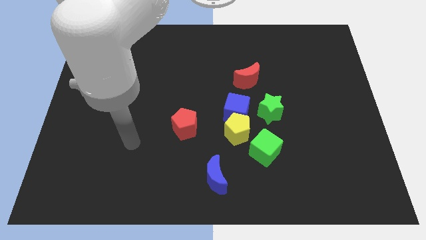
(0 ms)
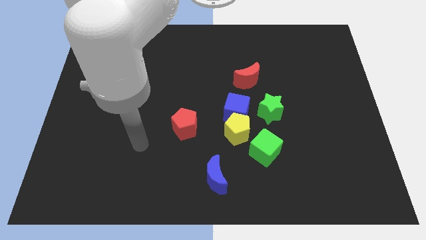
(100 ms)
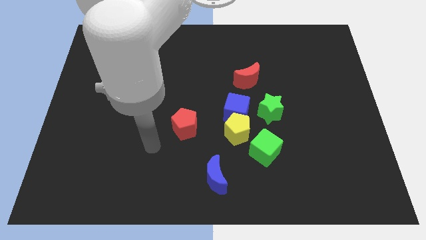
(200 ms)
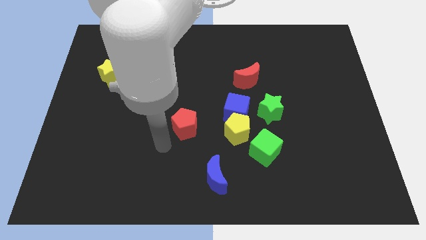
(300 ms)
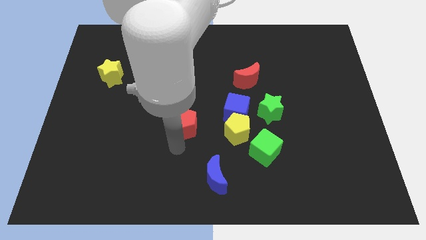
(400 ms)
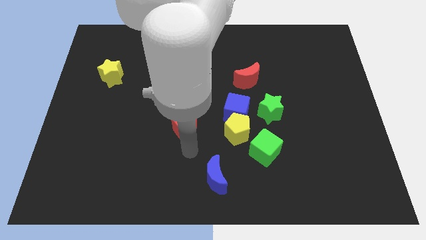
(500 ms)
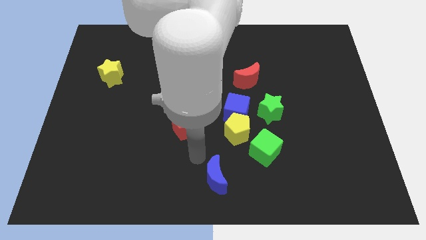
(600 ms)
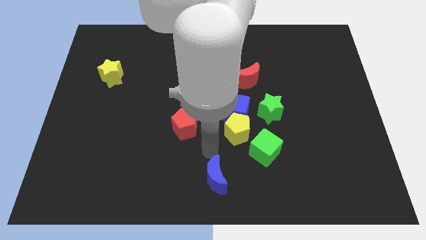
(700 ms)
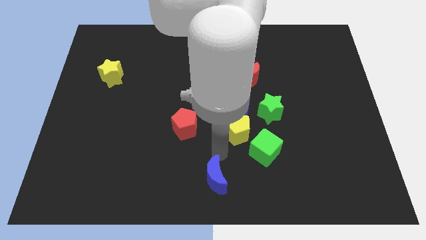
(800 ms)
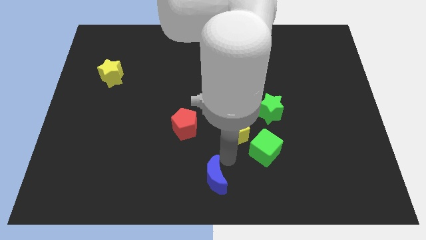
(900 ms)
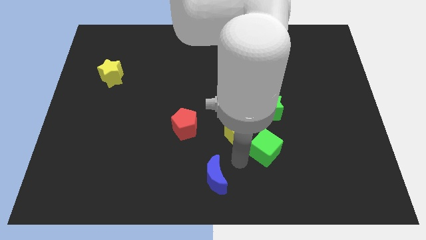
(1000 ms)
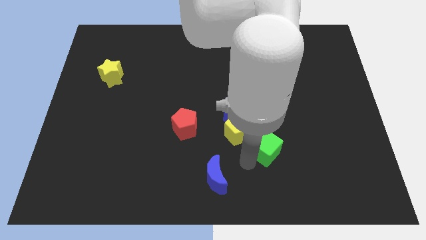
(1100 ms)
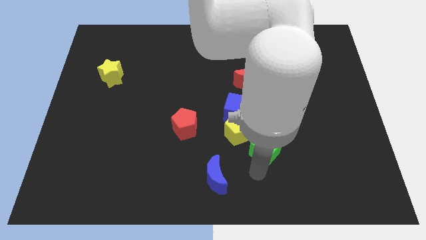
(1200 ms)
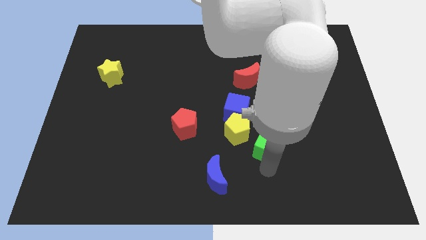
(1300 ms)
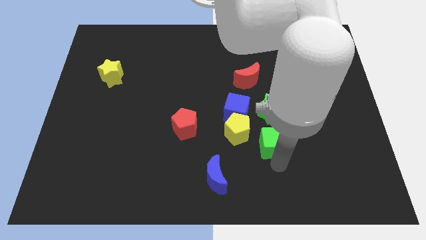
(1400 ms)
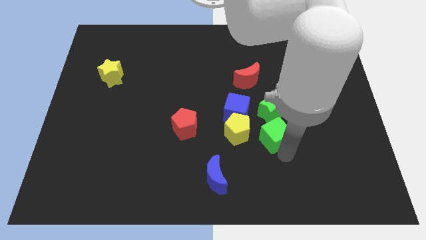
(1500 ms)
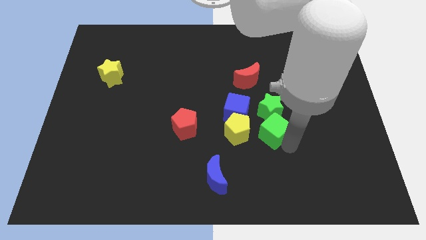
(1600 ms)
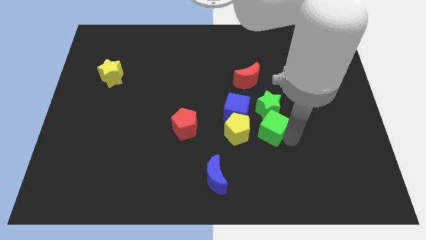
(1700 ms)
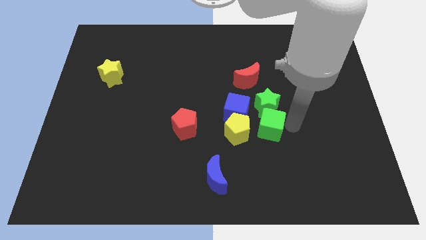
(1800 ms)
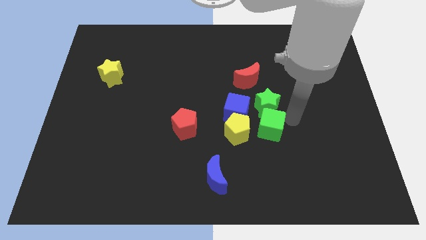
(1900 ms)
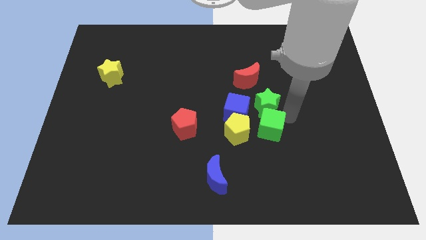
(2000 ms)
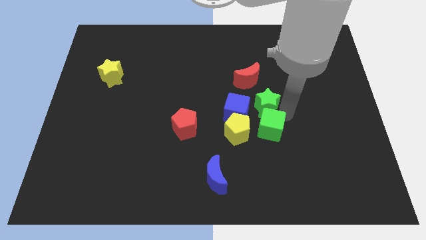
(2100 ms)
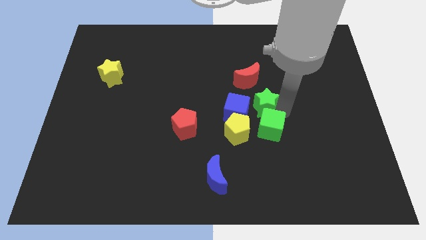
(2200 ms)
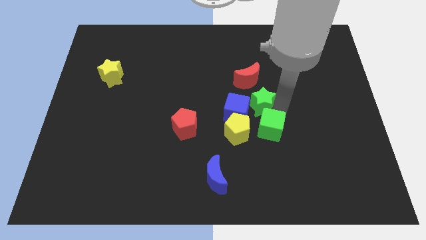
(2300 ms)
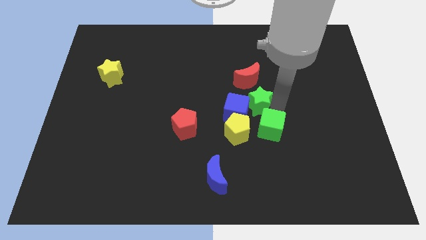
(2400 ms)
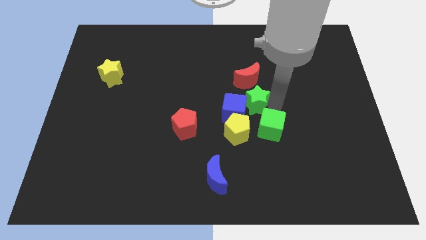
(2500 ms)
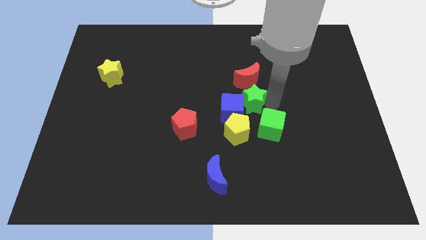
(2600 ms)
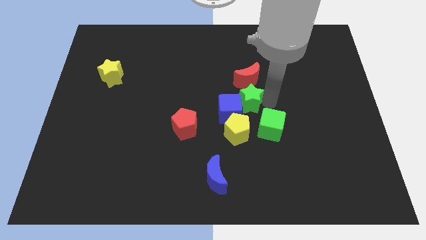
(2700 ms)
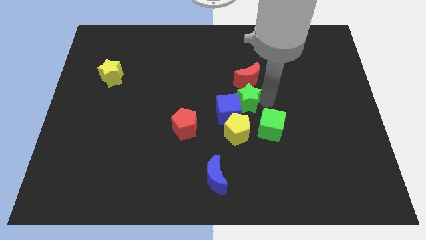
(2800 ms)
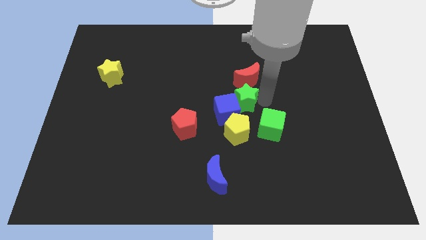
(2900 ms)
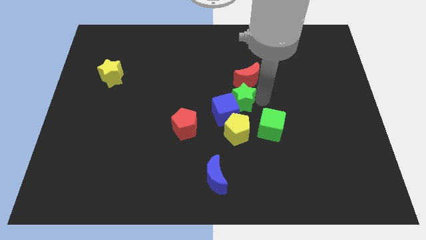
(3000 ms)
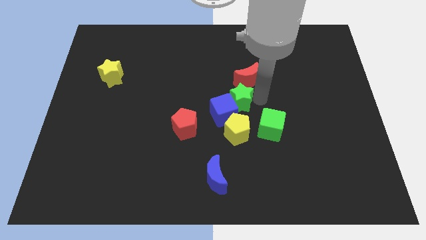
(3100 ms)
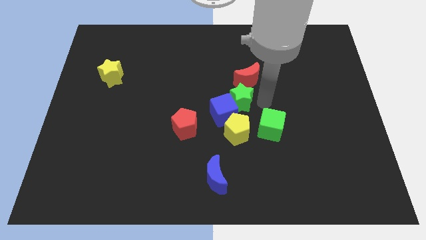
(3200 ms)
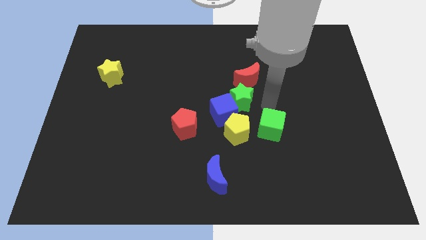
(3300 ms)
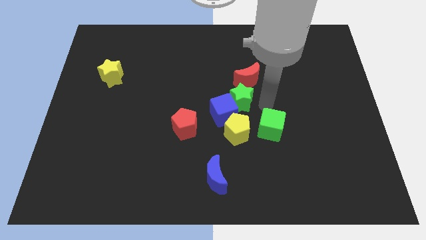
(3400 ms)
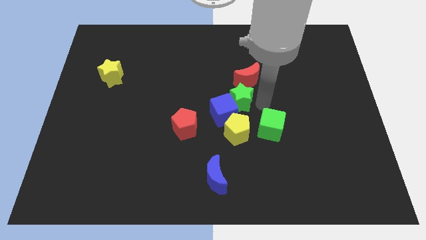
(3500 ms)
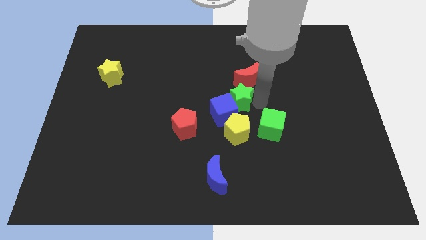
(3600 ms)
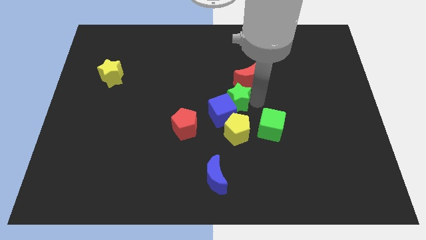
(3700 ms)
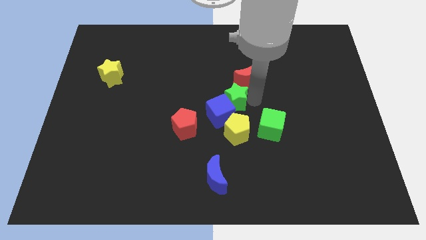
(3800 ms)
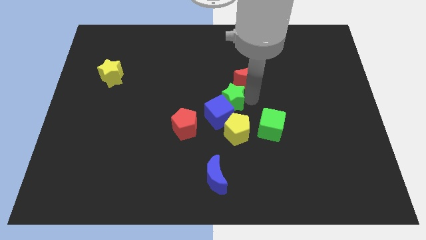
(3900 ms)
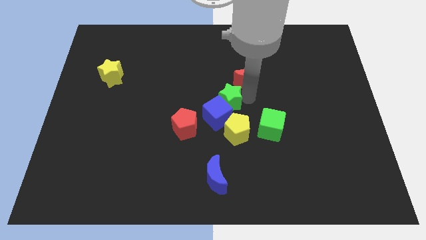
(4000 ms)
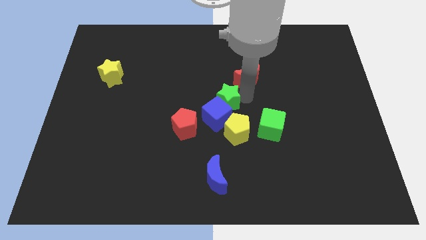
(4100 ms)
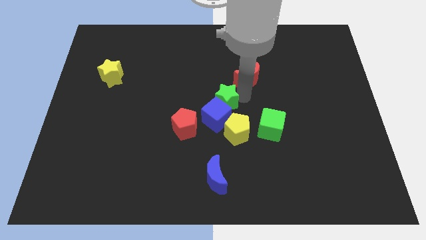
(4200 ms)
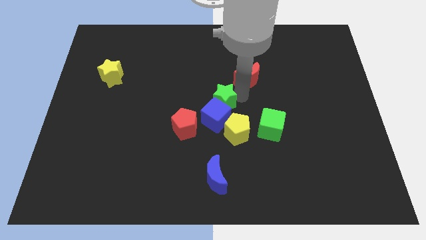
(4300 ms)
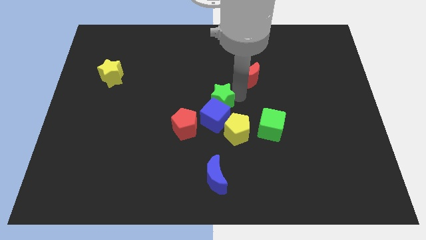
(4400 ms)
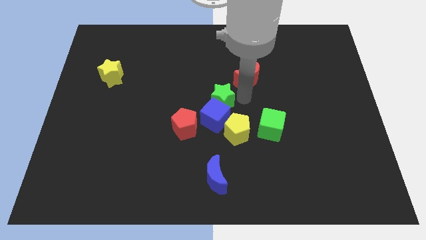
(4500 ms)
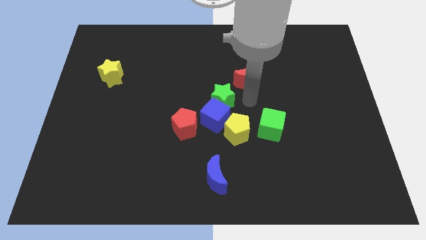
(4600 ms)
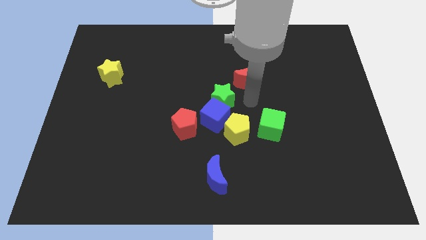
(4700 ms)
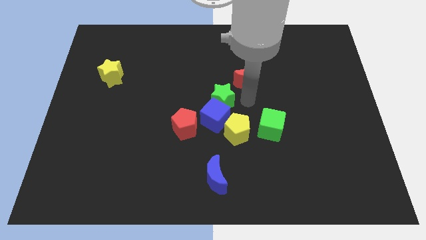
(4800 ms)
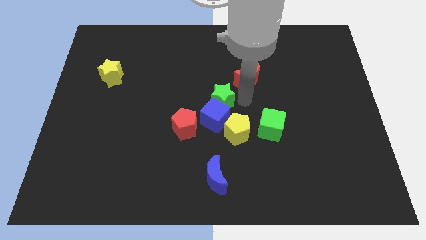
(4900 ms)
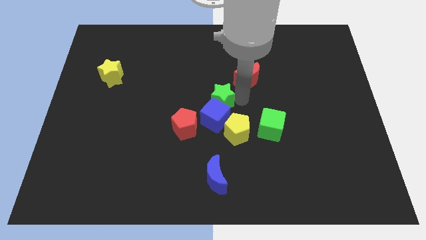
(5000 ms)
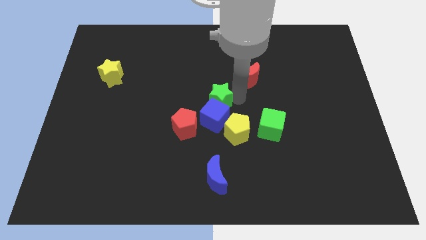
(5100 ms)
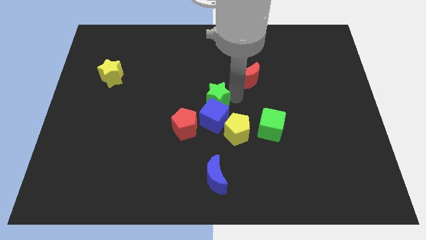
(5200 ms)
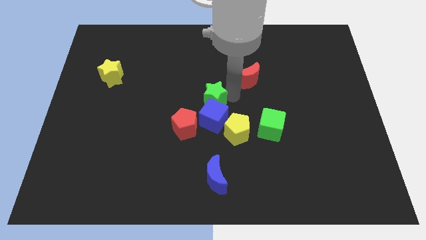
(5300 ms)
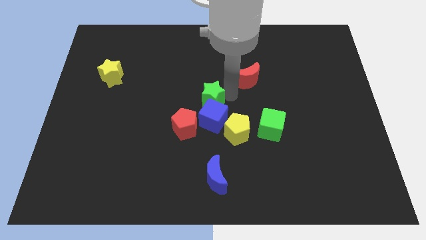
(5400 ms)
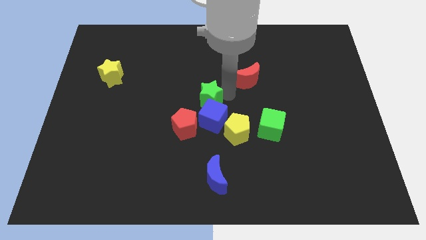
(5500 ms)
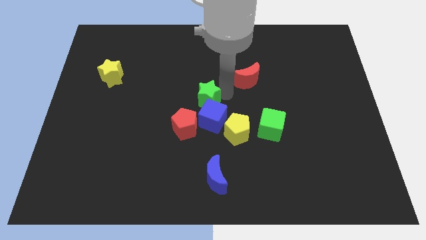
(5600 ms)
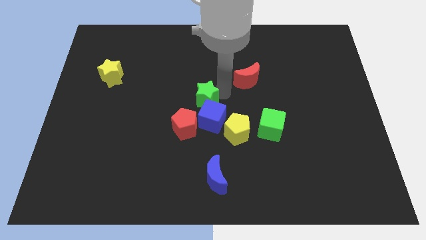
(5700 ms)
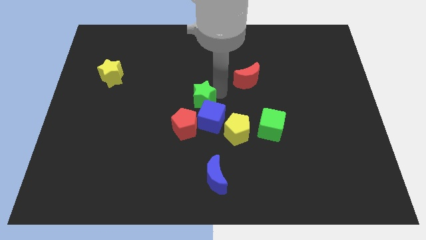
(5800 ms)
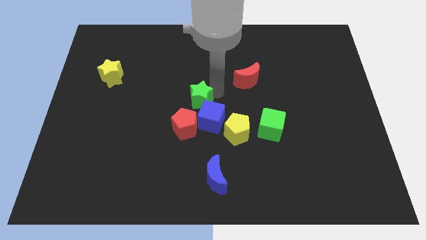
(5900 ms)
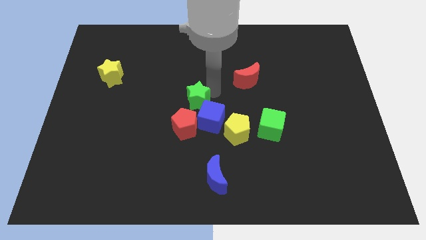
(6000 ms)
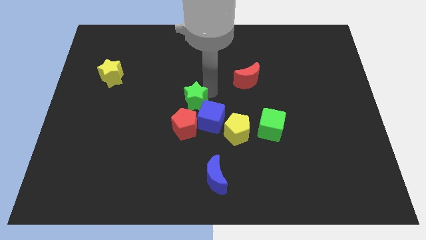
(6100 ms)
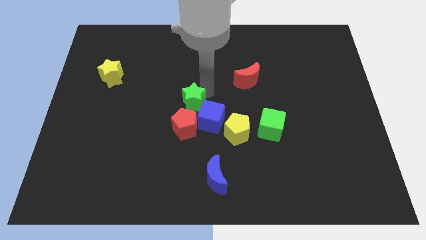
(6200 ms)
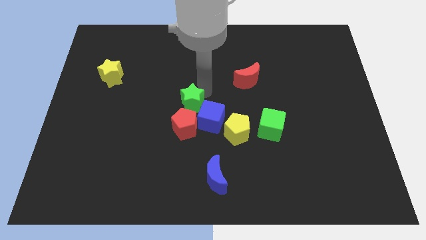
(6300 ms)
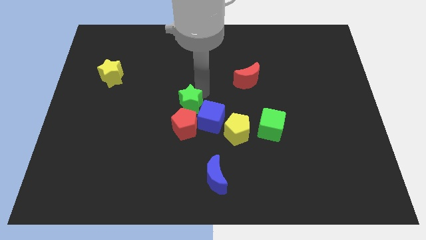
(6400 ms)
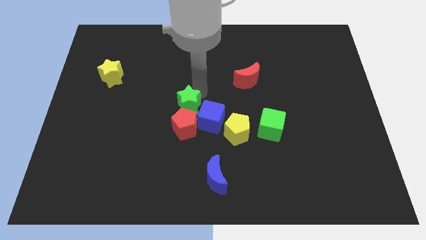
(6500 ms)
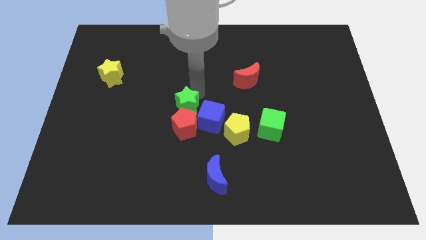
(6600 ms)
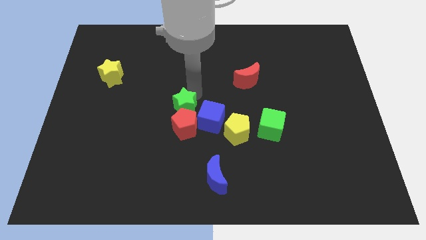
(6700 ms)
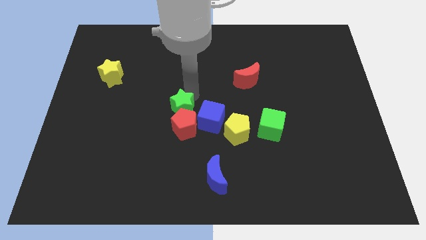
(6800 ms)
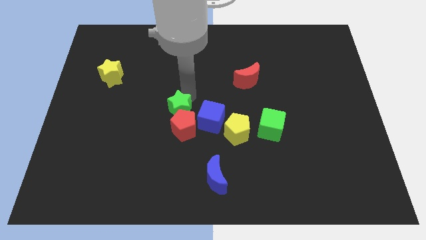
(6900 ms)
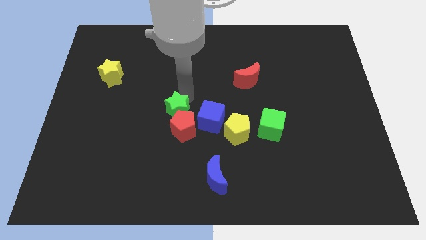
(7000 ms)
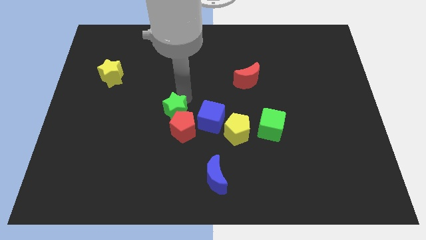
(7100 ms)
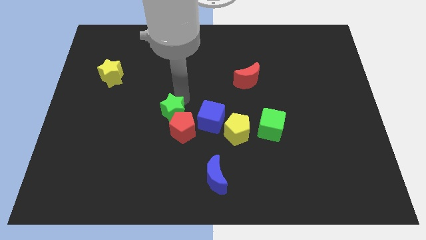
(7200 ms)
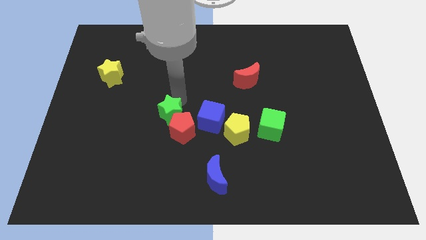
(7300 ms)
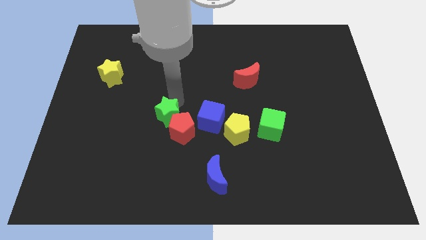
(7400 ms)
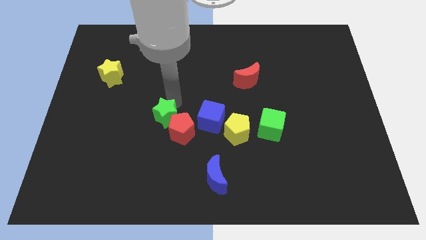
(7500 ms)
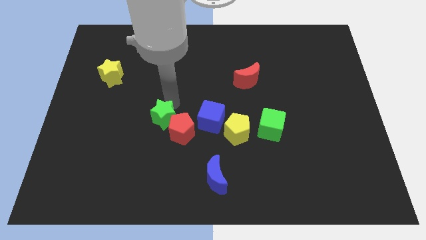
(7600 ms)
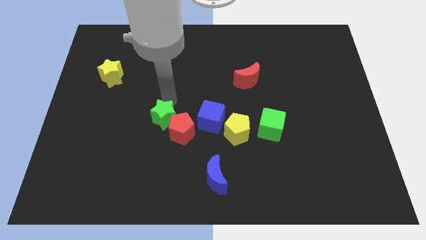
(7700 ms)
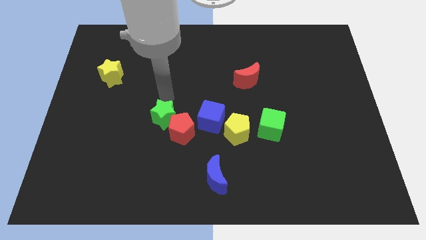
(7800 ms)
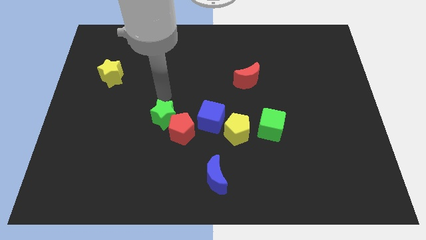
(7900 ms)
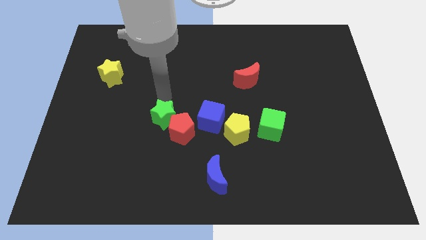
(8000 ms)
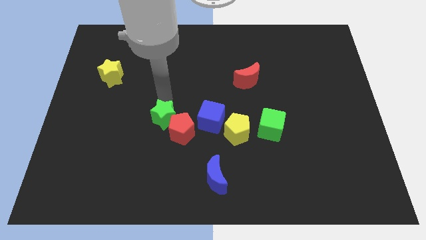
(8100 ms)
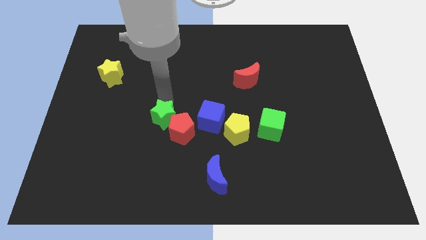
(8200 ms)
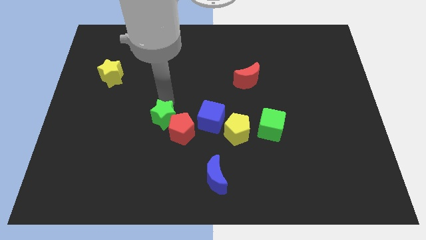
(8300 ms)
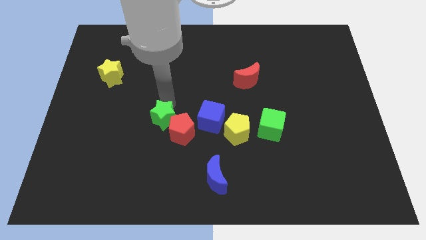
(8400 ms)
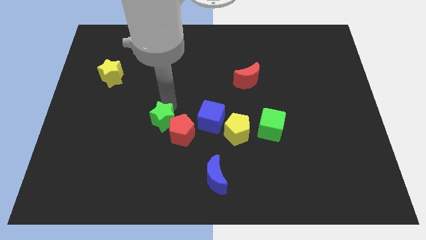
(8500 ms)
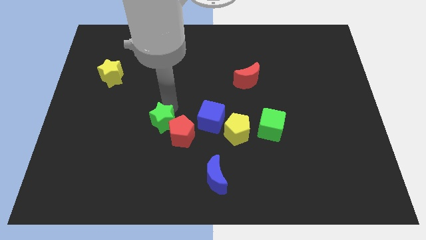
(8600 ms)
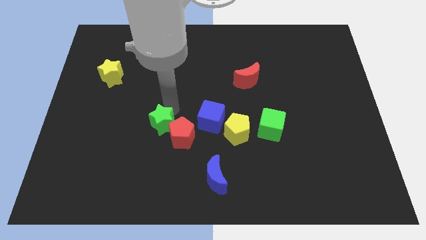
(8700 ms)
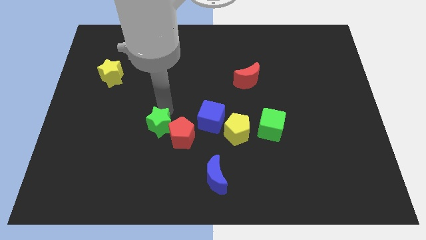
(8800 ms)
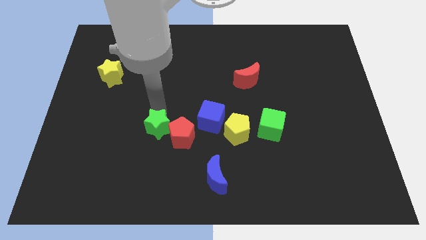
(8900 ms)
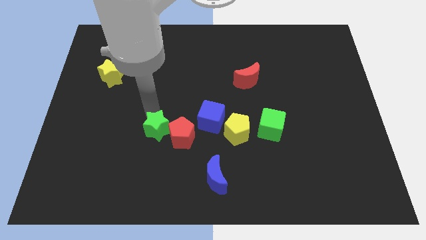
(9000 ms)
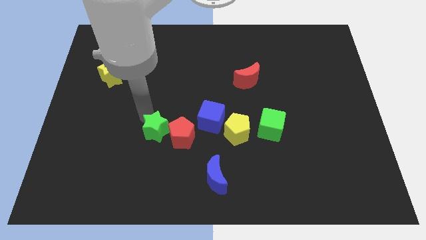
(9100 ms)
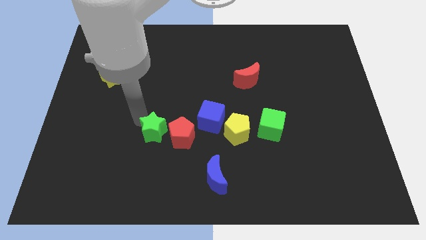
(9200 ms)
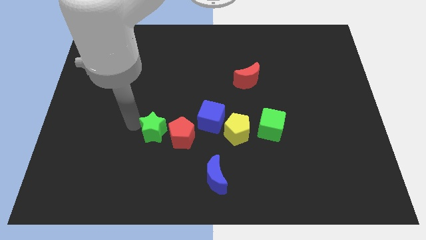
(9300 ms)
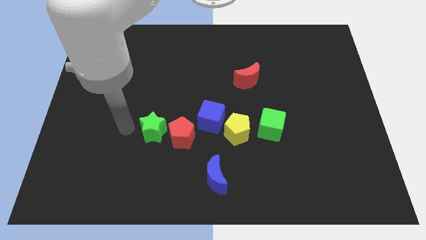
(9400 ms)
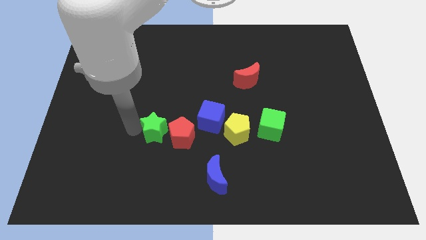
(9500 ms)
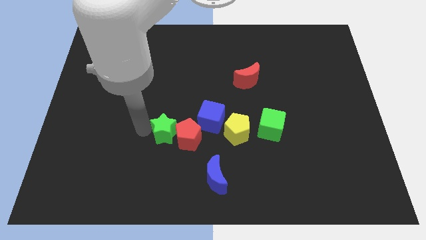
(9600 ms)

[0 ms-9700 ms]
put the green star to the left side of the yellow pentagon
